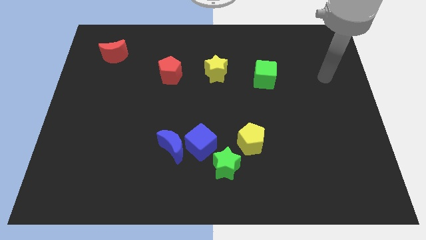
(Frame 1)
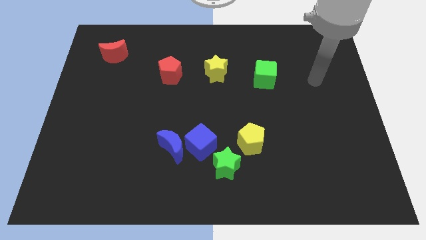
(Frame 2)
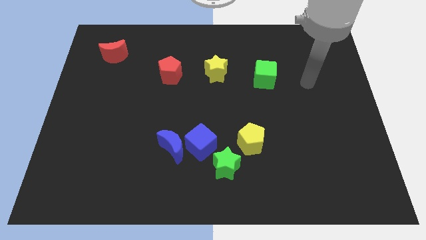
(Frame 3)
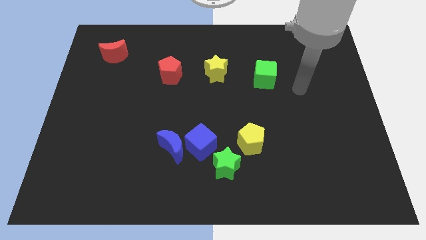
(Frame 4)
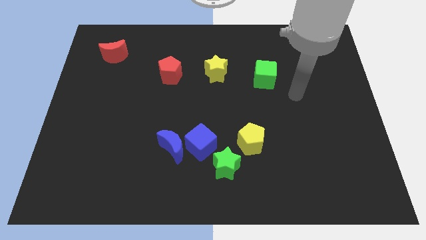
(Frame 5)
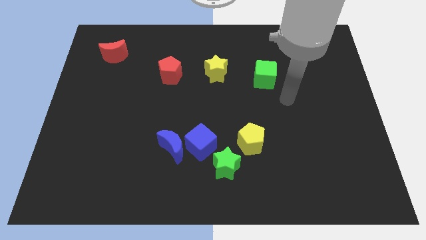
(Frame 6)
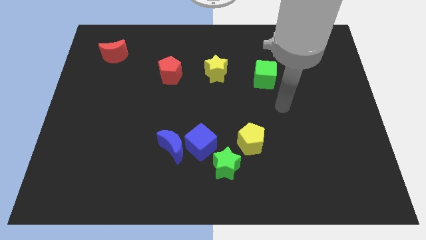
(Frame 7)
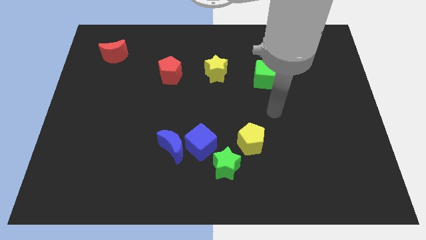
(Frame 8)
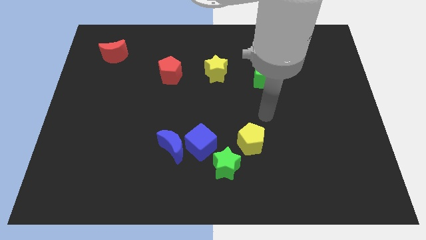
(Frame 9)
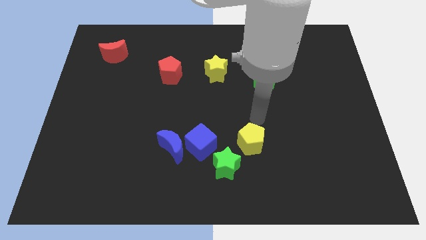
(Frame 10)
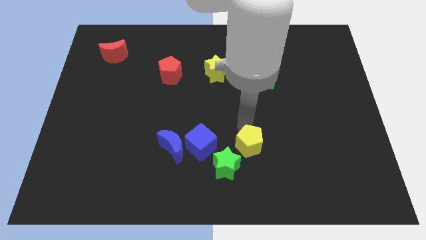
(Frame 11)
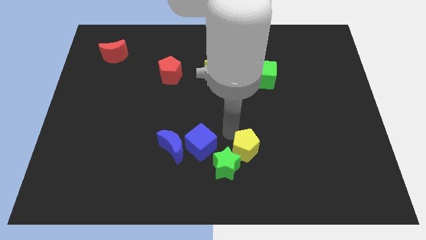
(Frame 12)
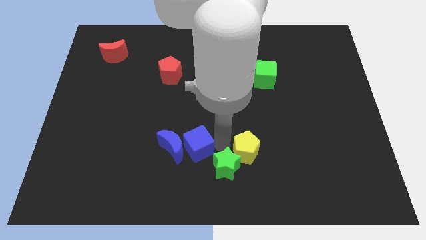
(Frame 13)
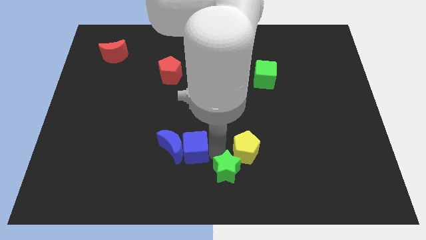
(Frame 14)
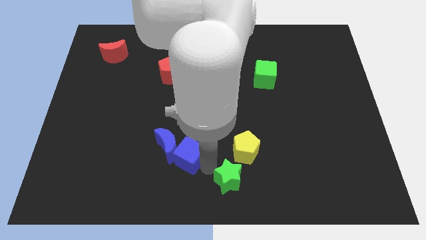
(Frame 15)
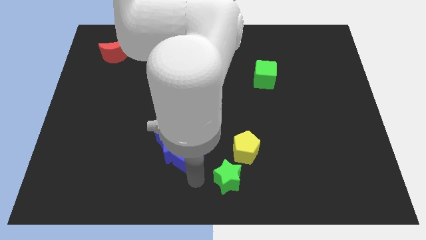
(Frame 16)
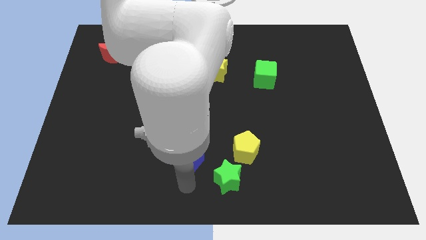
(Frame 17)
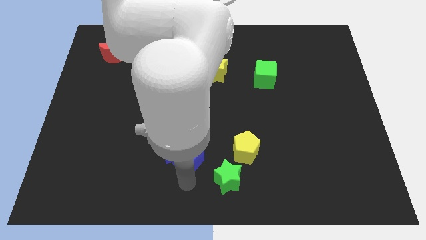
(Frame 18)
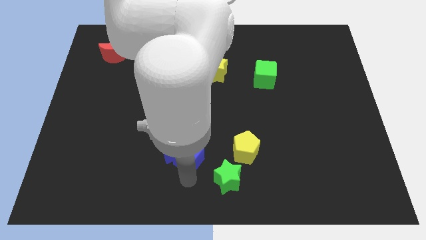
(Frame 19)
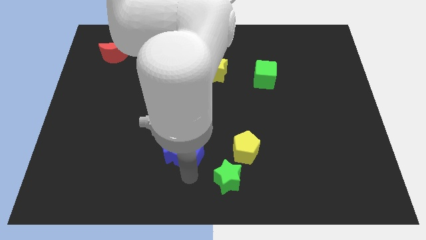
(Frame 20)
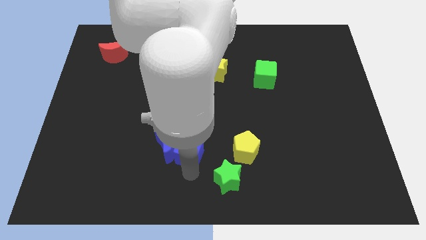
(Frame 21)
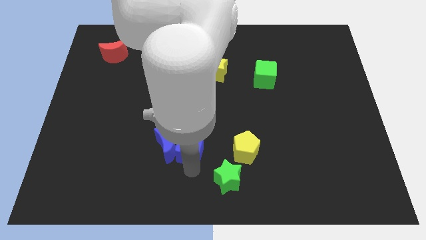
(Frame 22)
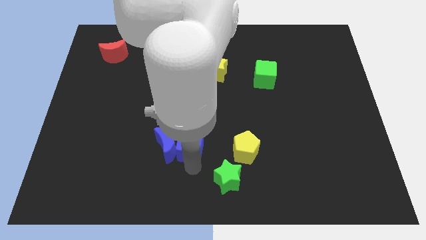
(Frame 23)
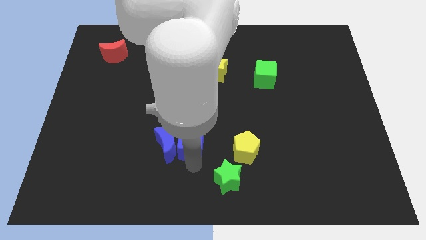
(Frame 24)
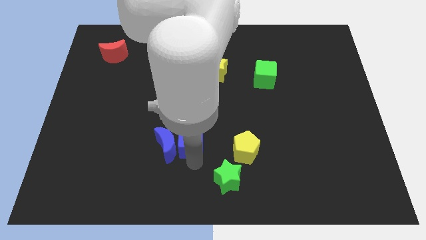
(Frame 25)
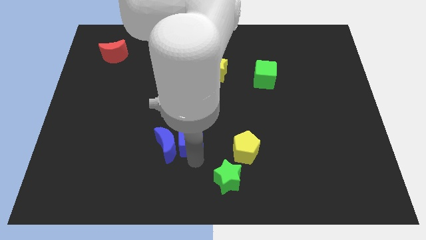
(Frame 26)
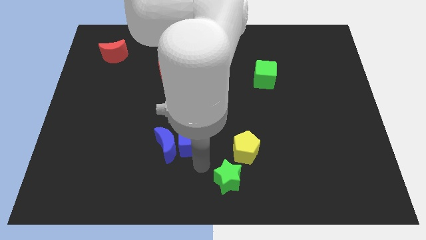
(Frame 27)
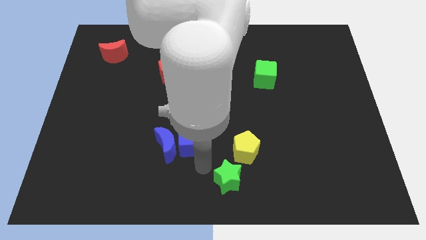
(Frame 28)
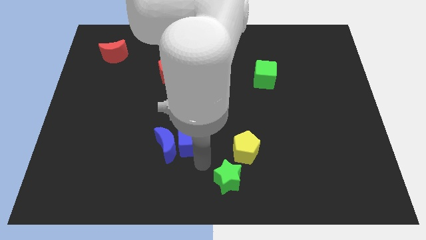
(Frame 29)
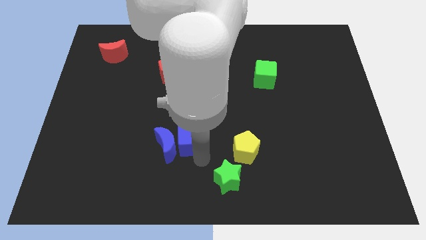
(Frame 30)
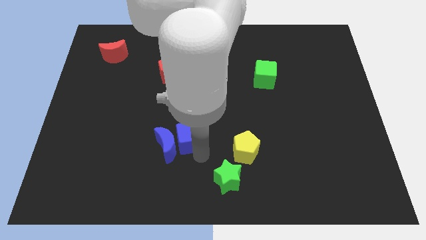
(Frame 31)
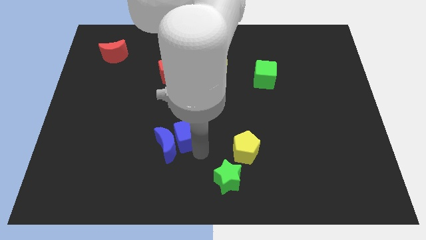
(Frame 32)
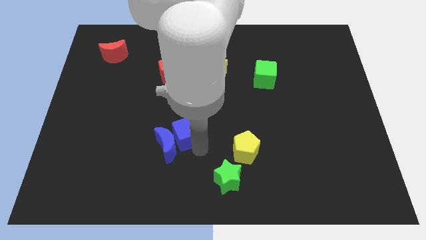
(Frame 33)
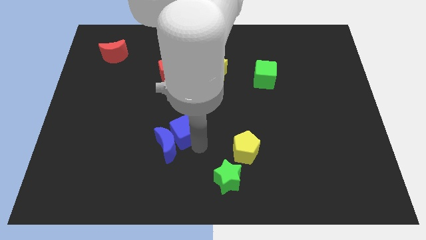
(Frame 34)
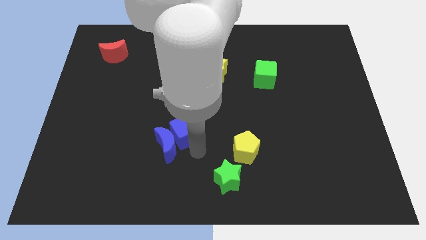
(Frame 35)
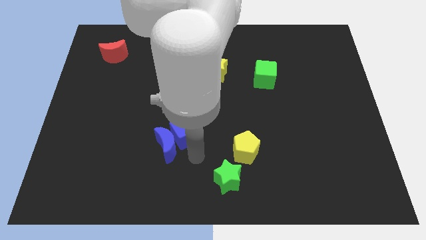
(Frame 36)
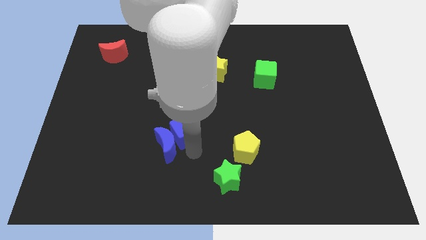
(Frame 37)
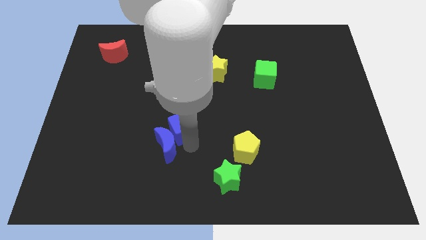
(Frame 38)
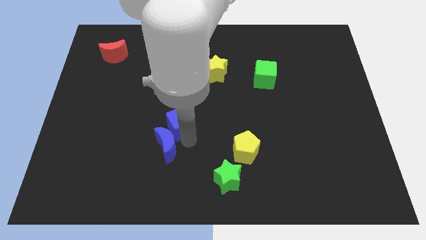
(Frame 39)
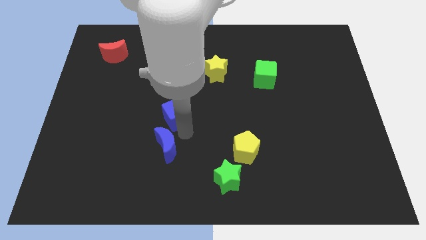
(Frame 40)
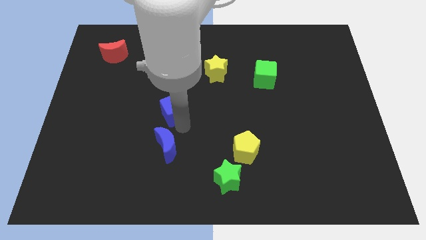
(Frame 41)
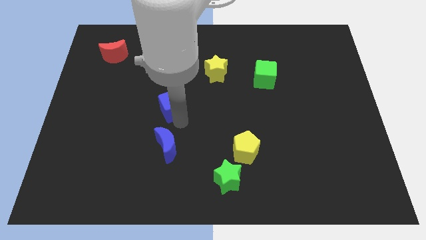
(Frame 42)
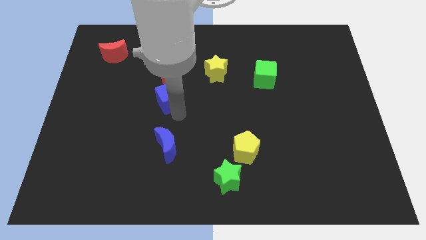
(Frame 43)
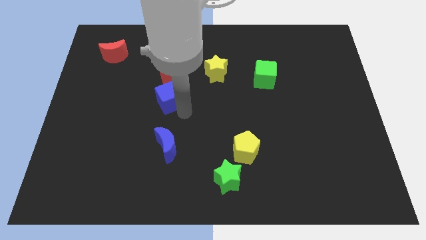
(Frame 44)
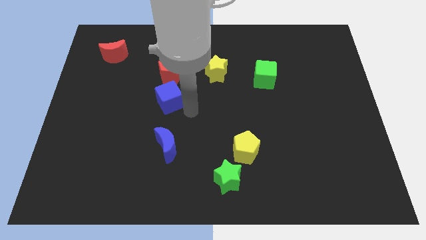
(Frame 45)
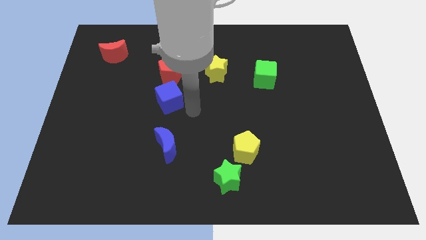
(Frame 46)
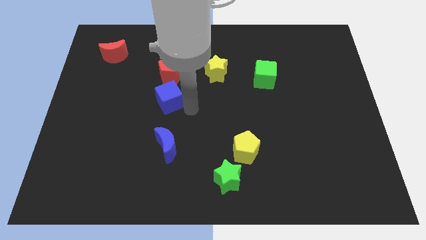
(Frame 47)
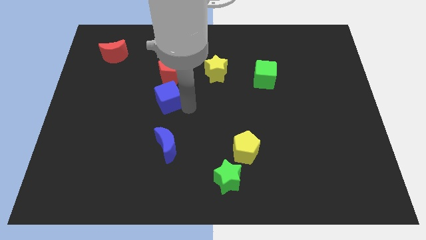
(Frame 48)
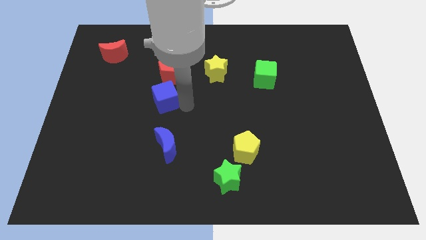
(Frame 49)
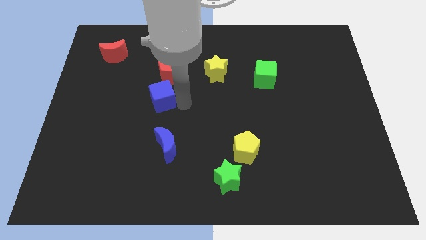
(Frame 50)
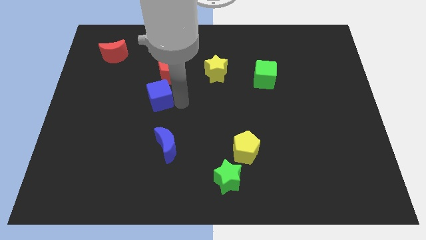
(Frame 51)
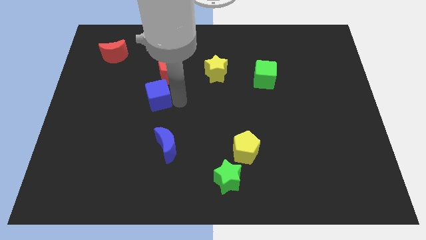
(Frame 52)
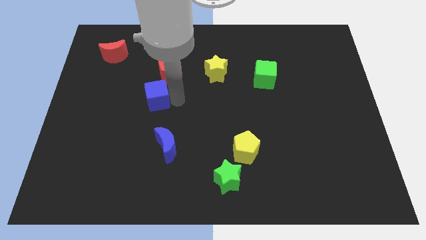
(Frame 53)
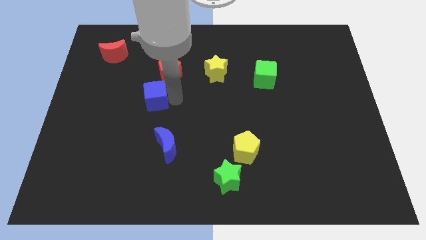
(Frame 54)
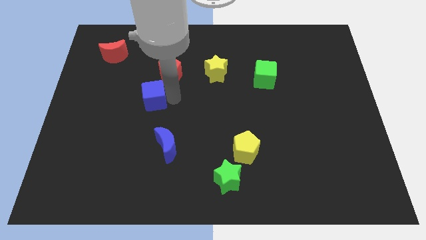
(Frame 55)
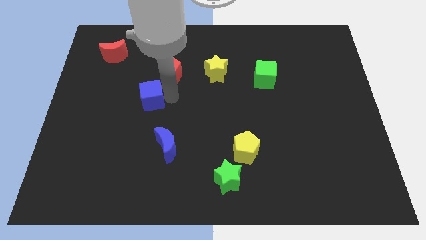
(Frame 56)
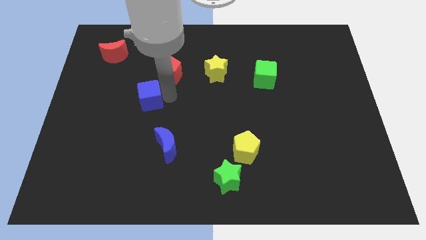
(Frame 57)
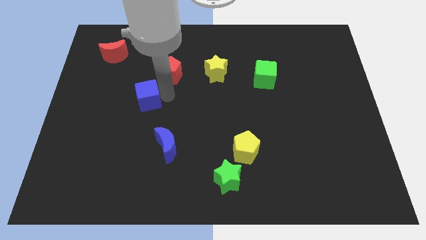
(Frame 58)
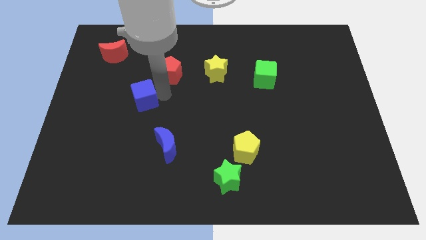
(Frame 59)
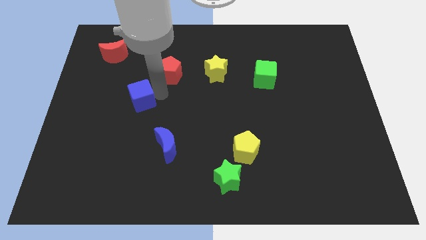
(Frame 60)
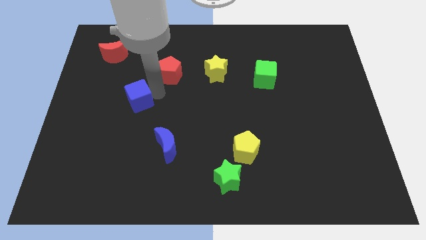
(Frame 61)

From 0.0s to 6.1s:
push the blue cube diagonally upwards and to the left

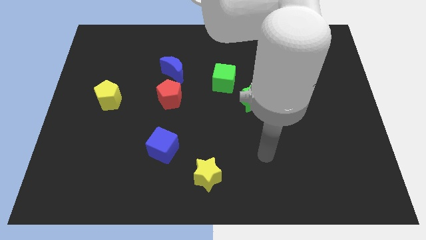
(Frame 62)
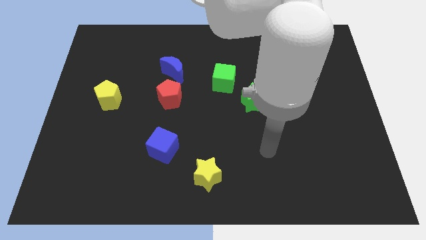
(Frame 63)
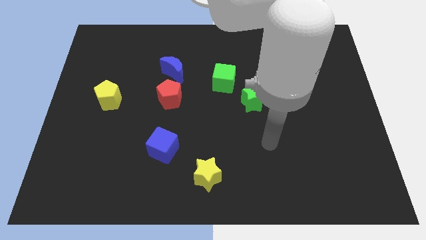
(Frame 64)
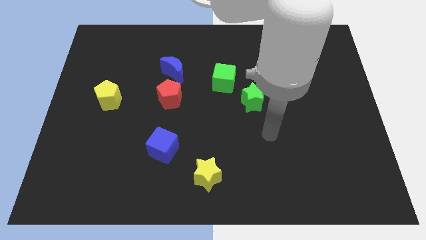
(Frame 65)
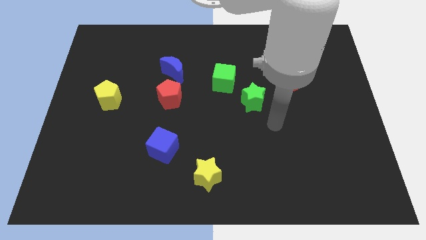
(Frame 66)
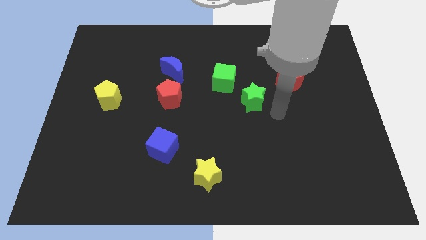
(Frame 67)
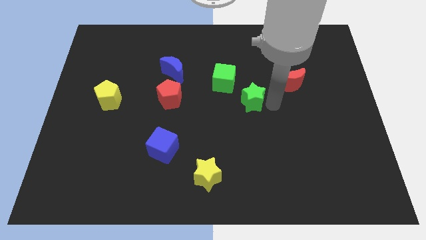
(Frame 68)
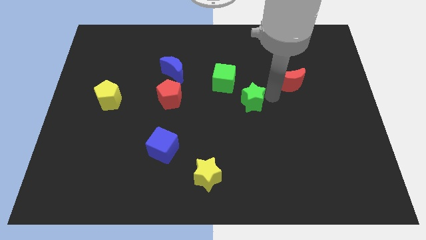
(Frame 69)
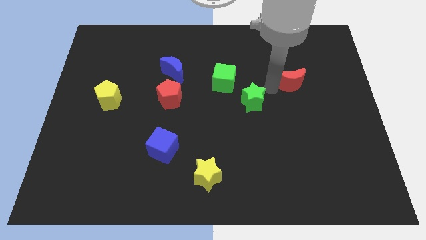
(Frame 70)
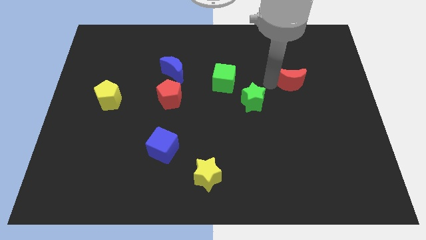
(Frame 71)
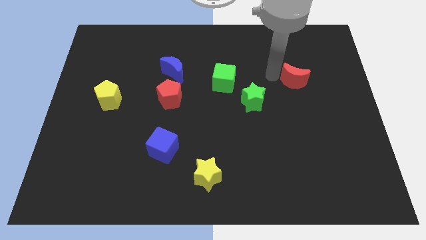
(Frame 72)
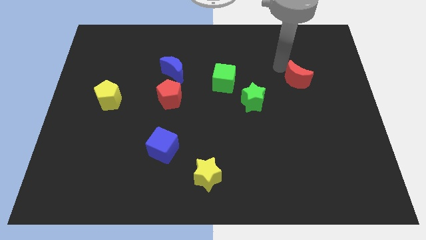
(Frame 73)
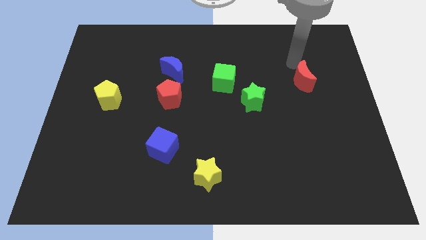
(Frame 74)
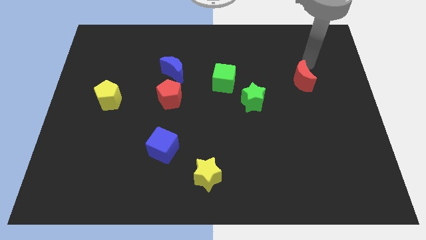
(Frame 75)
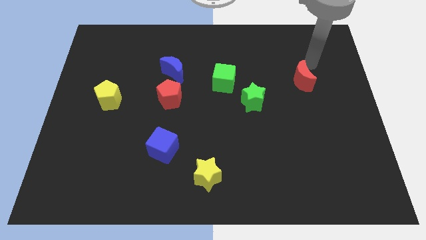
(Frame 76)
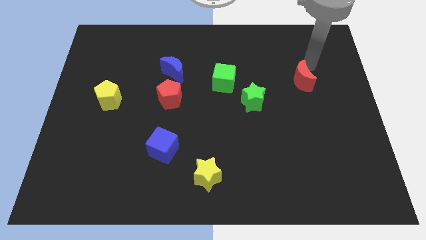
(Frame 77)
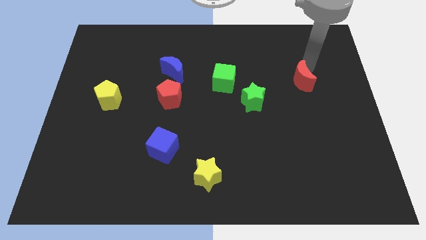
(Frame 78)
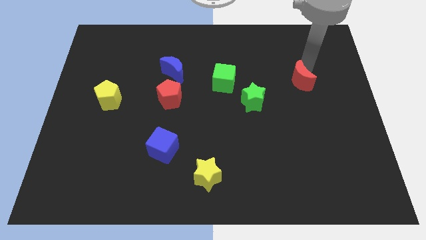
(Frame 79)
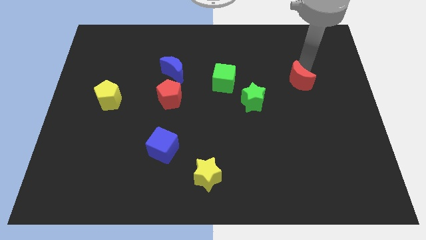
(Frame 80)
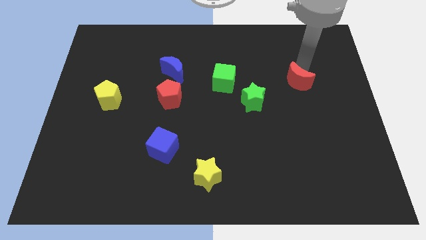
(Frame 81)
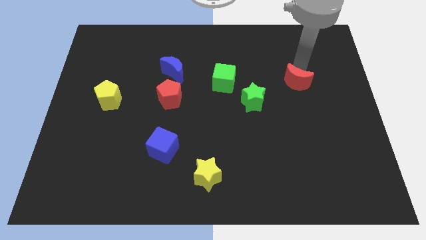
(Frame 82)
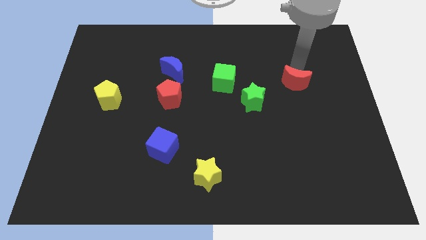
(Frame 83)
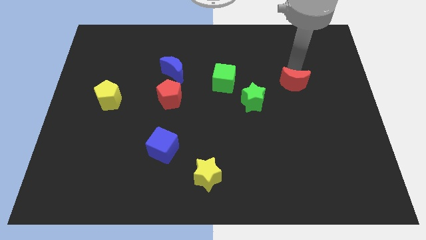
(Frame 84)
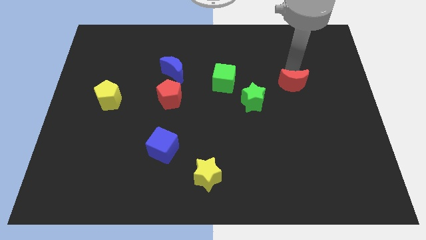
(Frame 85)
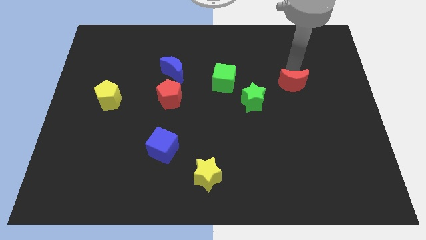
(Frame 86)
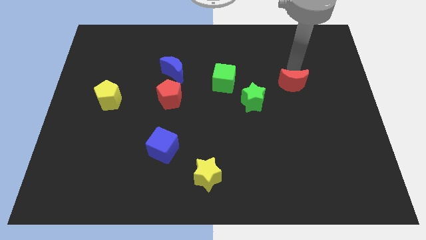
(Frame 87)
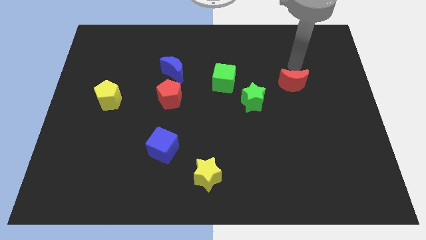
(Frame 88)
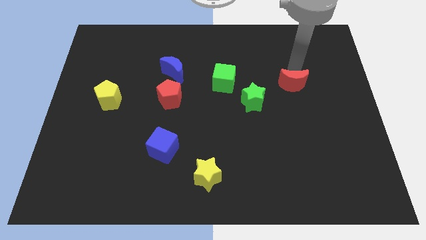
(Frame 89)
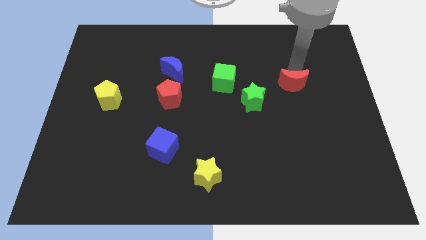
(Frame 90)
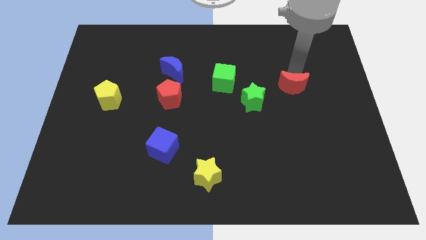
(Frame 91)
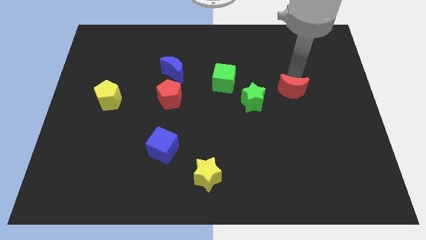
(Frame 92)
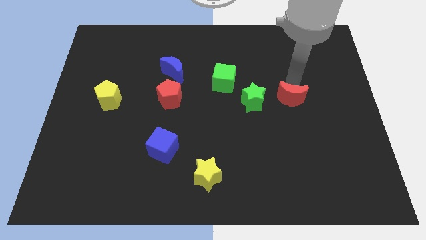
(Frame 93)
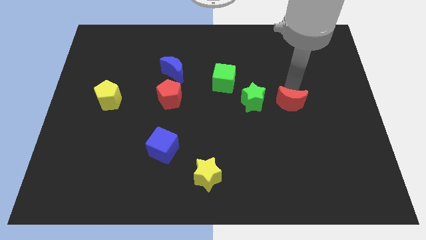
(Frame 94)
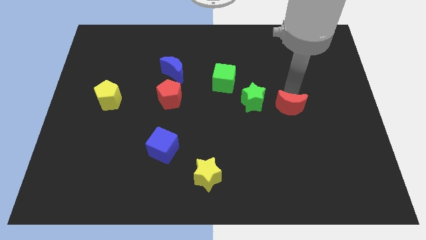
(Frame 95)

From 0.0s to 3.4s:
slightly move the red moon downwards
